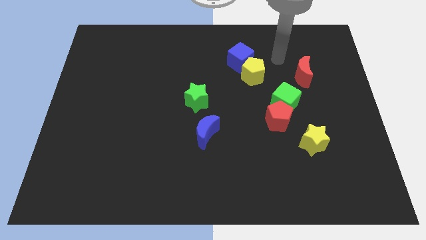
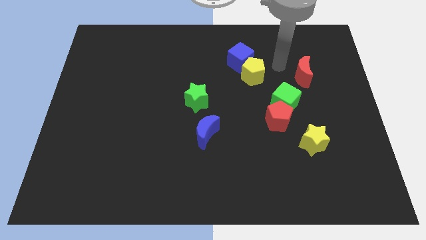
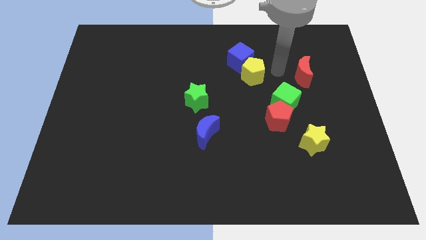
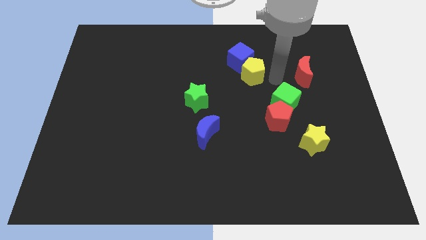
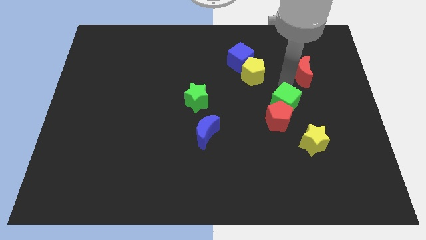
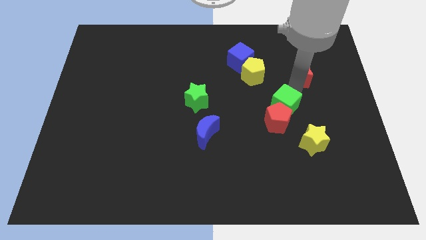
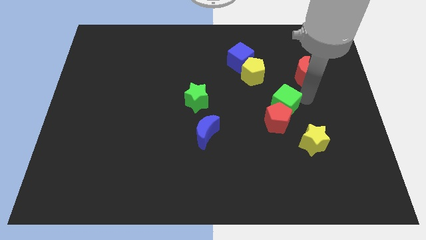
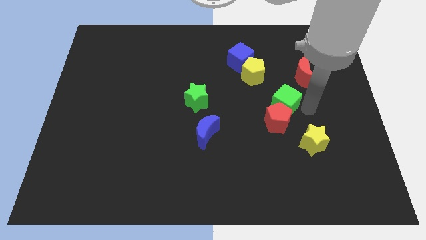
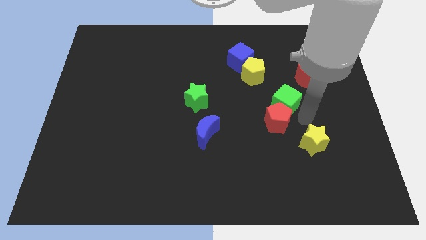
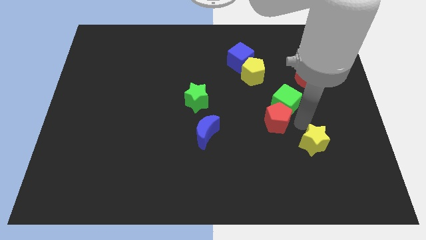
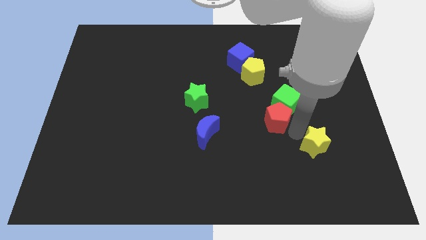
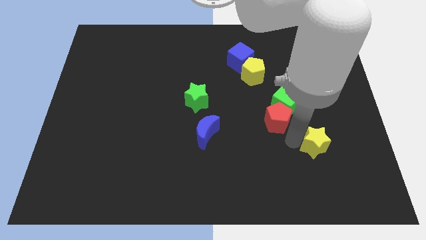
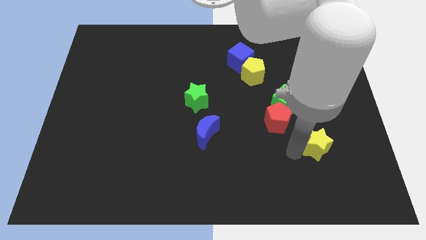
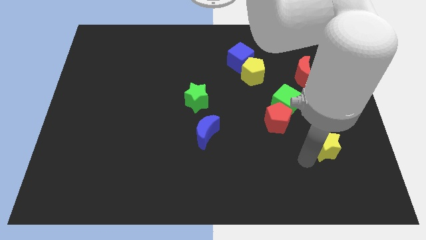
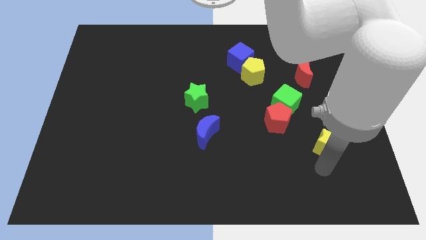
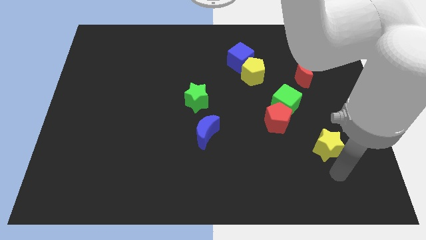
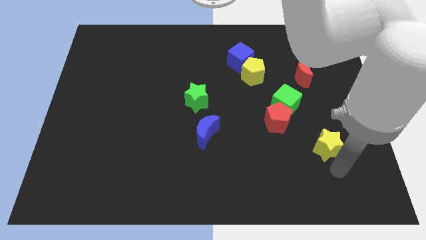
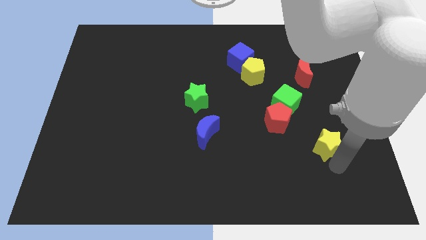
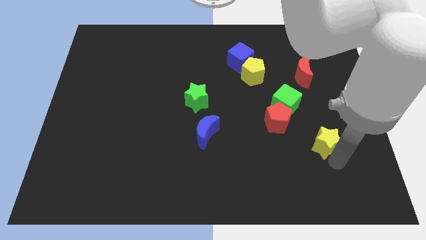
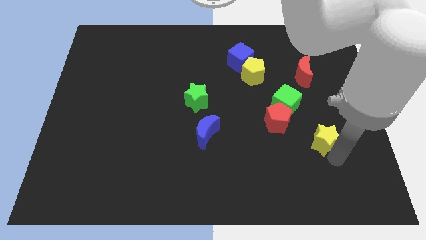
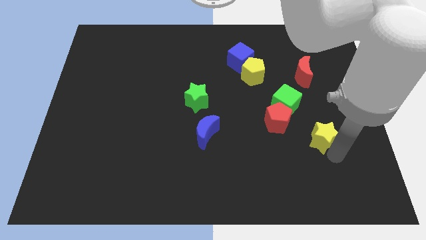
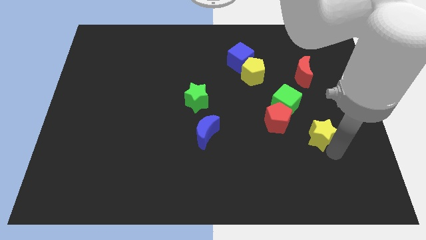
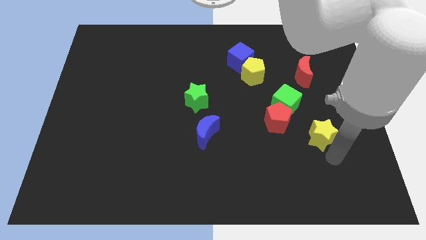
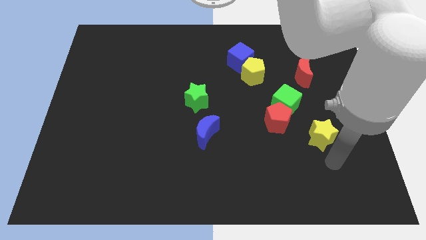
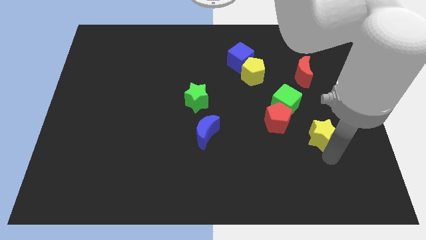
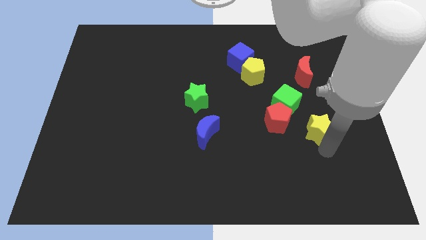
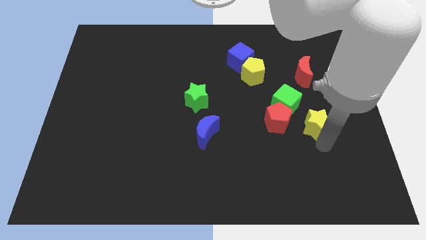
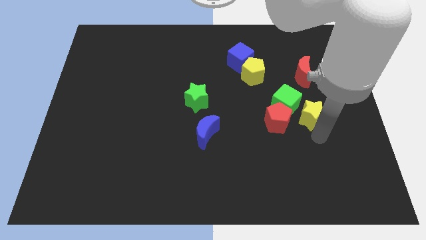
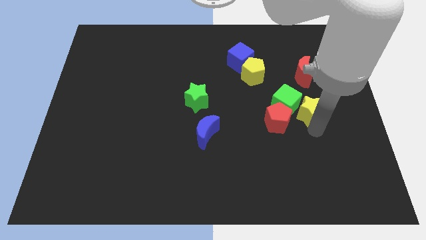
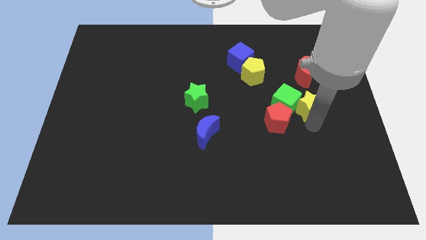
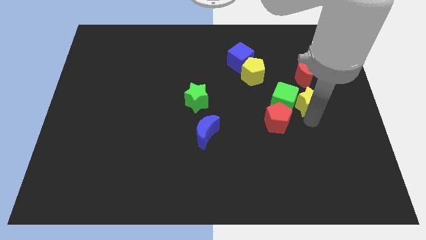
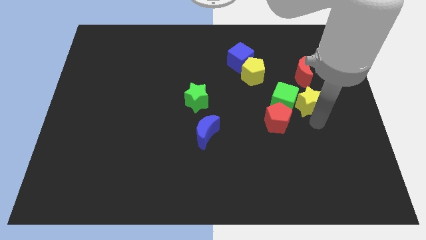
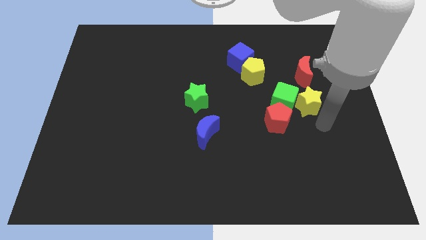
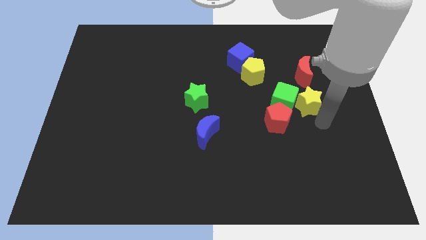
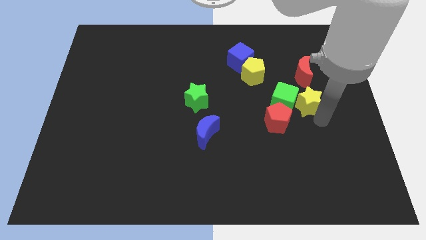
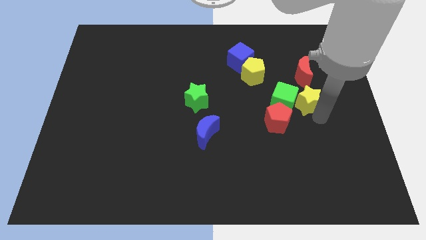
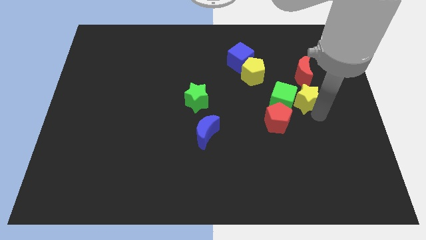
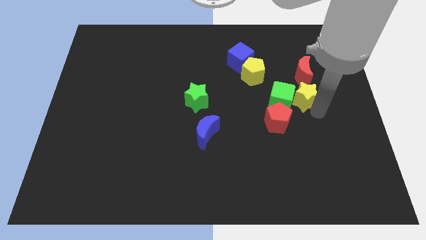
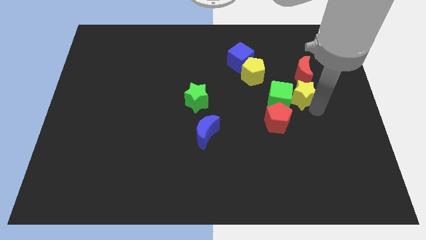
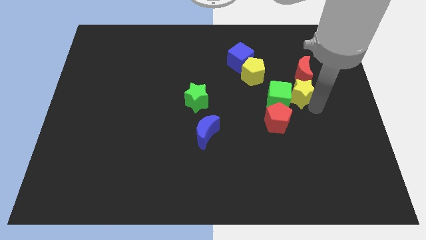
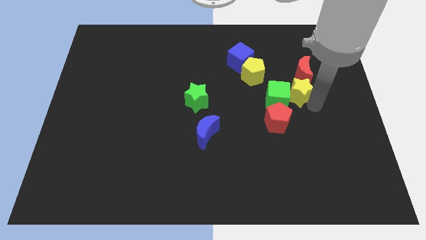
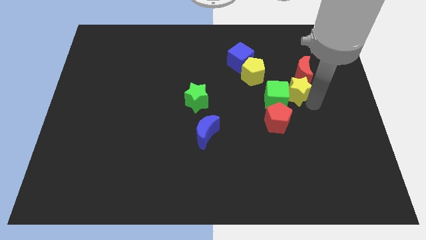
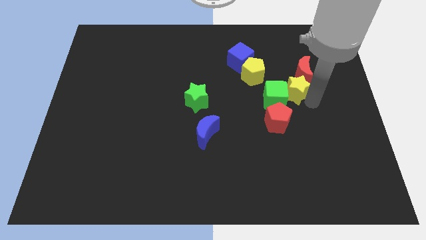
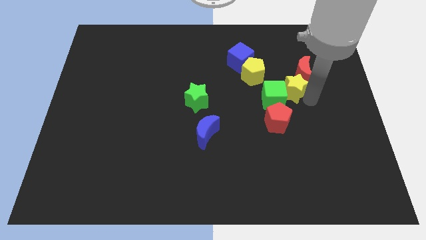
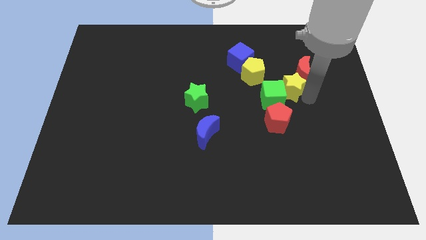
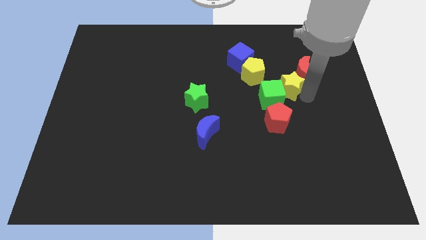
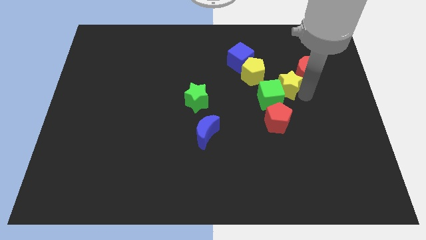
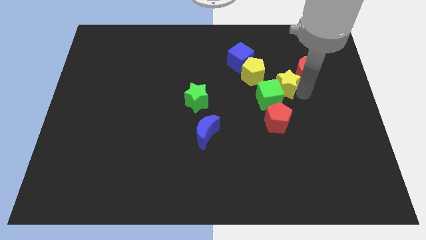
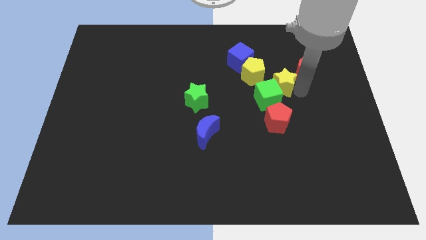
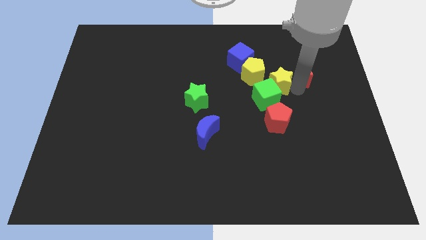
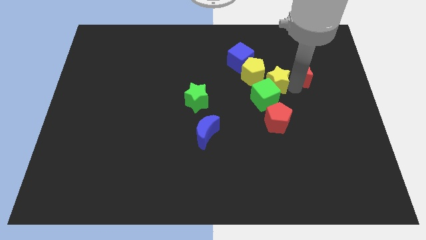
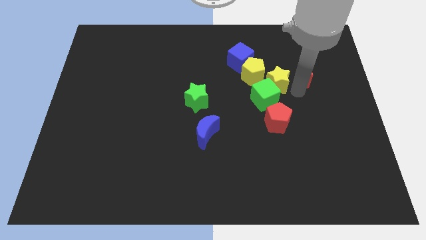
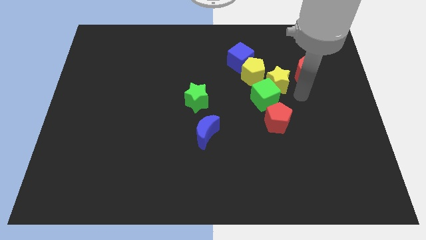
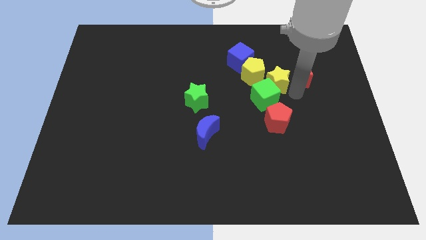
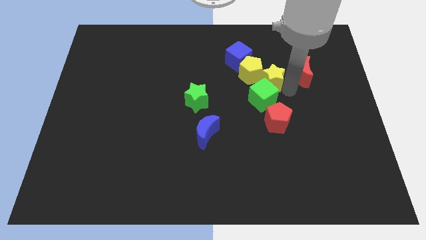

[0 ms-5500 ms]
move the yellow star close to the yellow pentagon

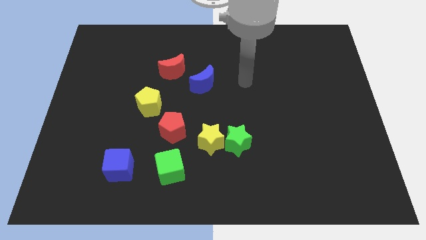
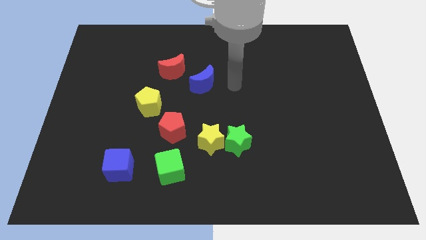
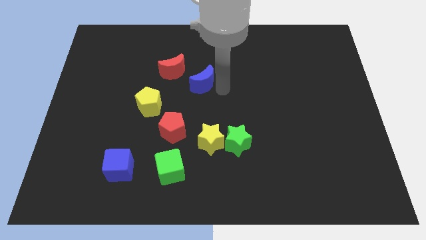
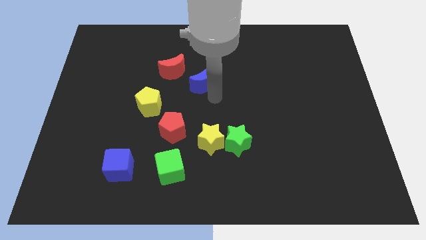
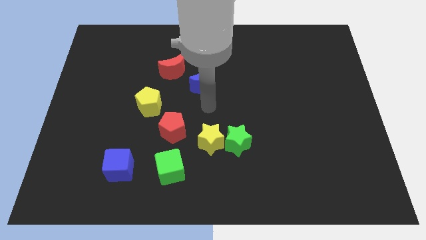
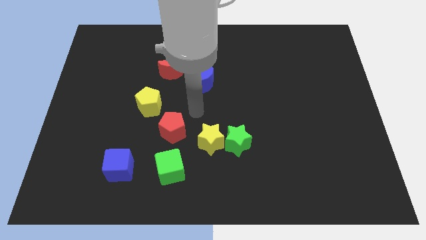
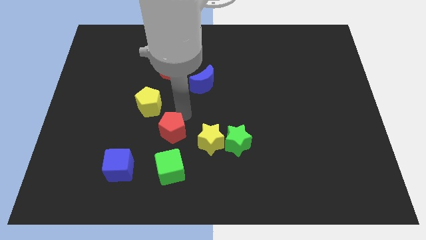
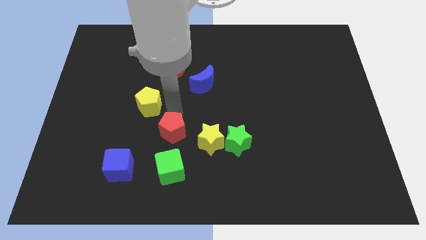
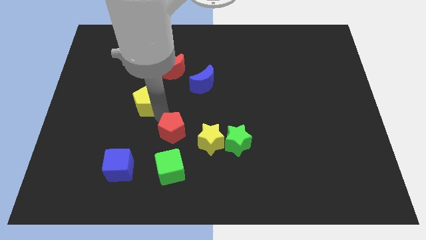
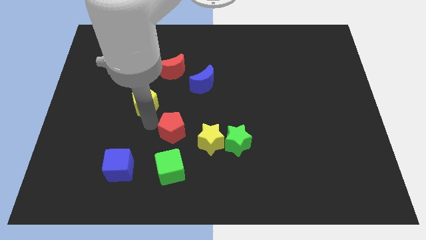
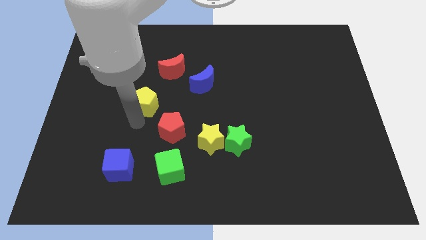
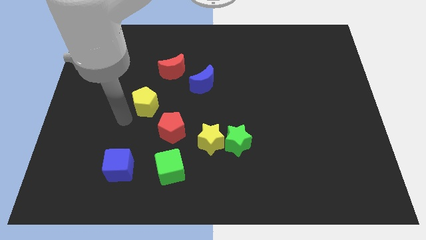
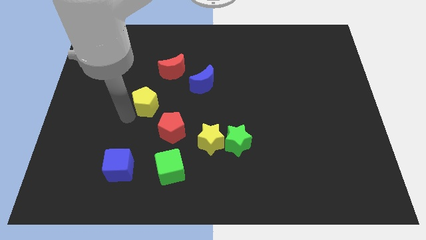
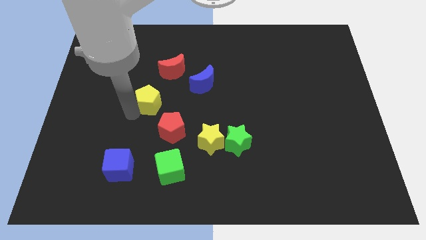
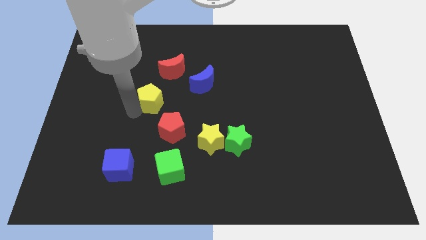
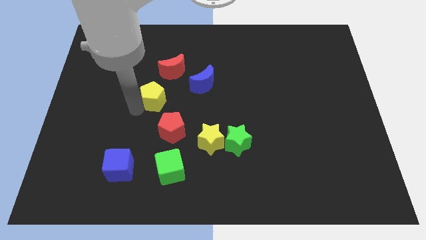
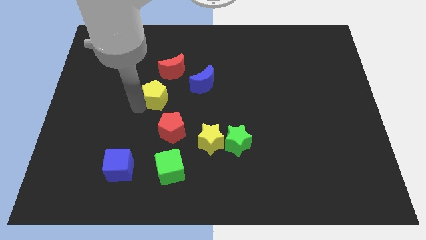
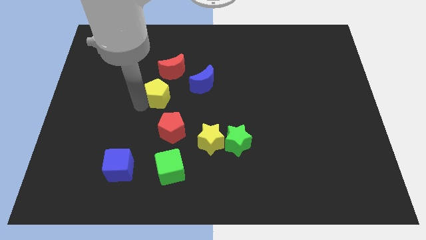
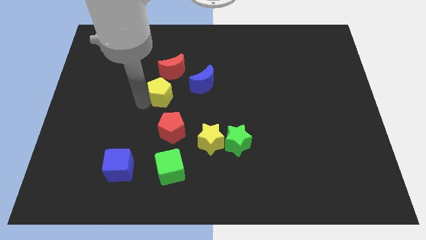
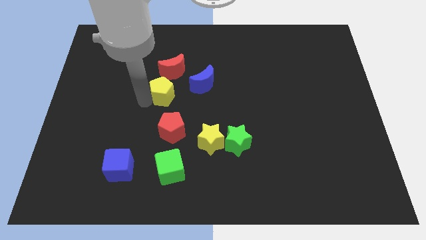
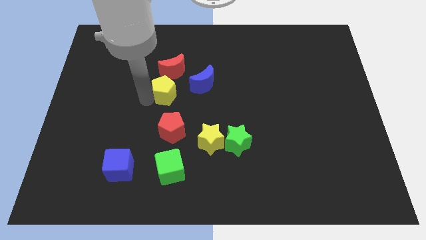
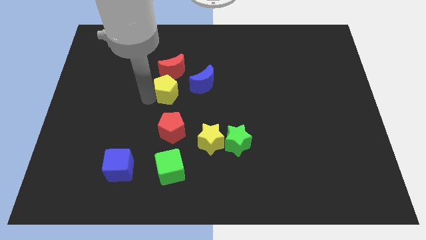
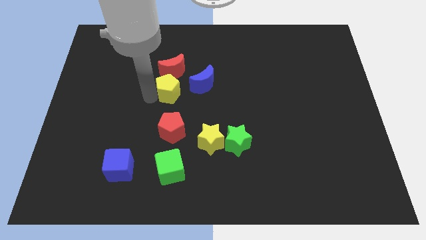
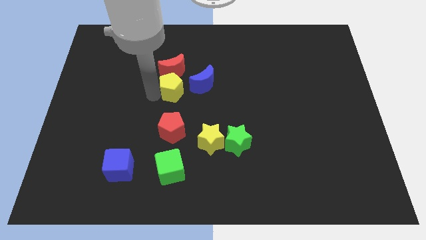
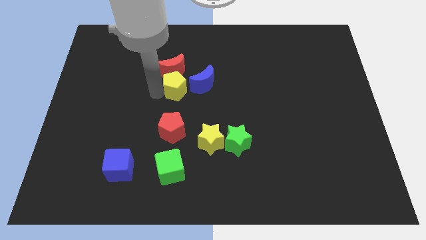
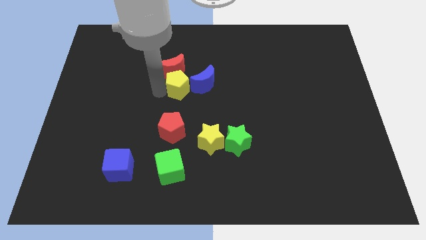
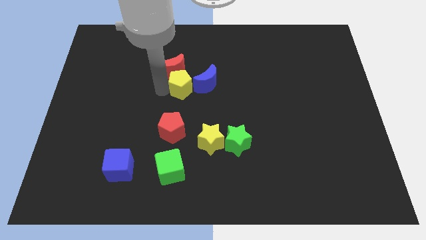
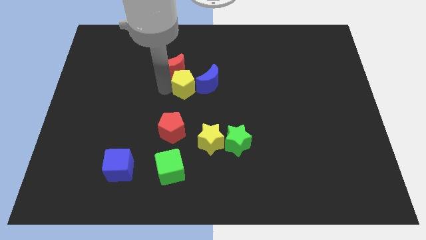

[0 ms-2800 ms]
put the yellow pentagon towards the blue moon

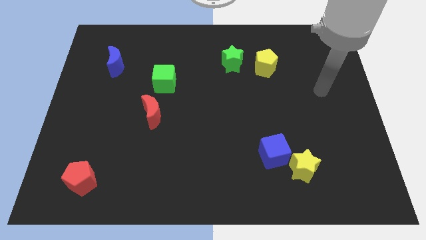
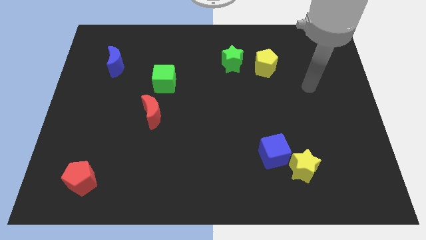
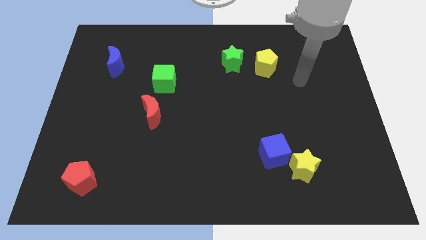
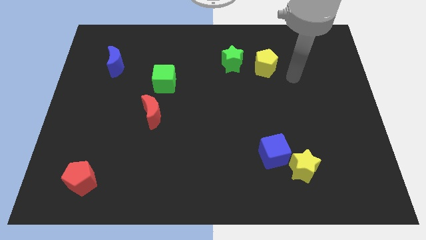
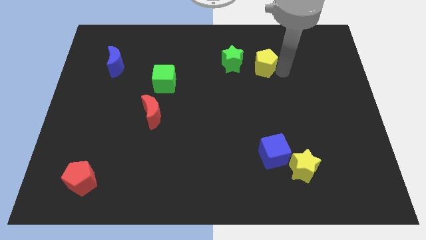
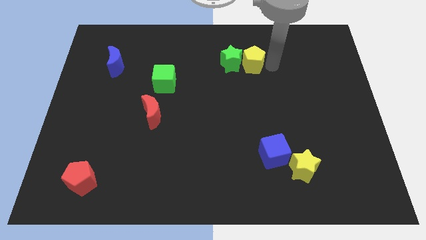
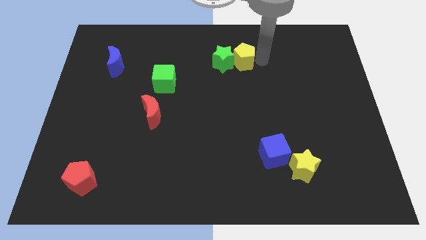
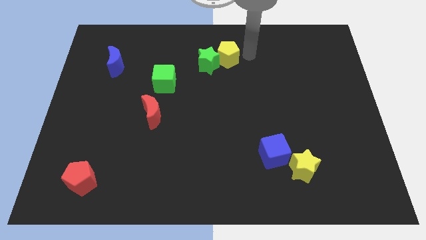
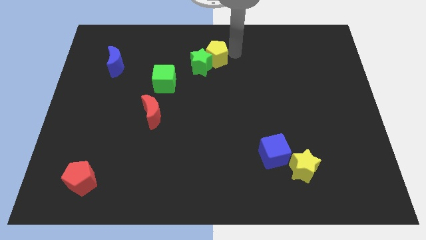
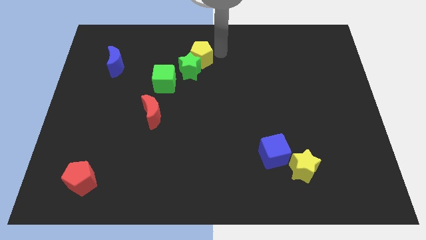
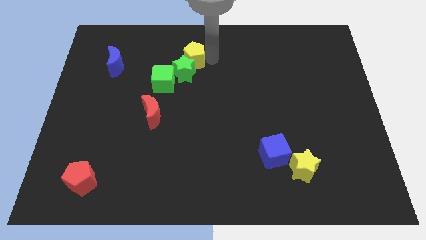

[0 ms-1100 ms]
put the green star close to the green cube
